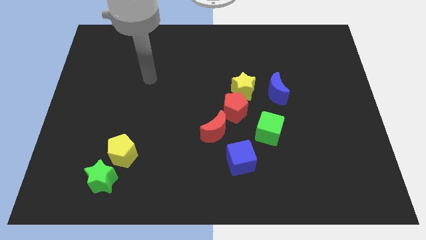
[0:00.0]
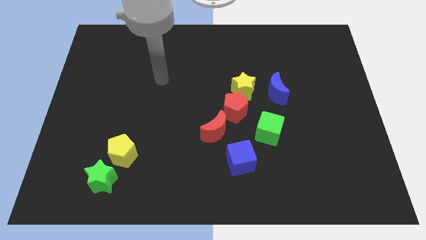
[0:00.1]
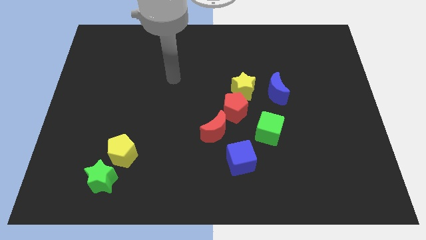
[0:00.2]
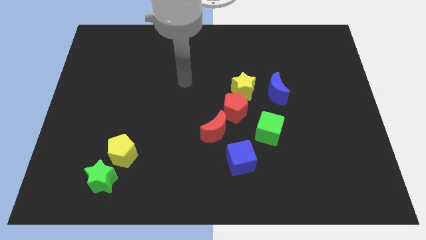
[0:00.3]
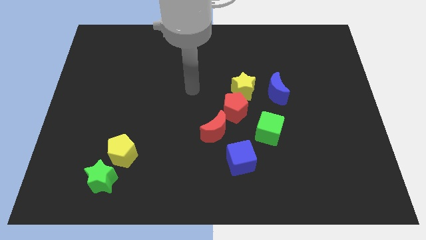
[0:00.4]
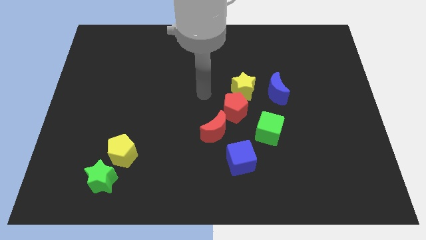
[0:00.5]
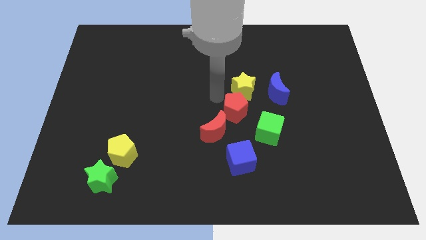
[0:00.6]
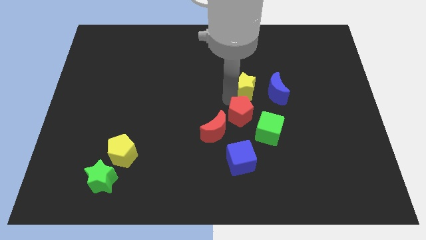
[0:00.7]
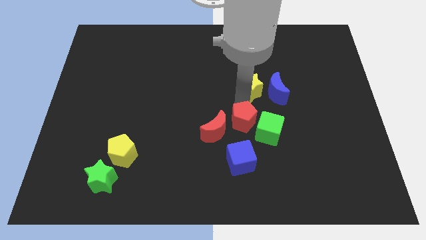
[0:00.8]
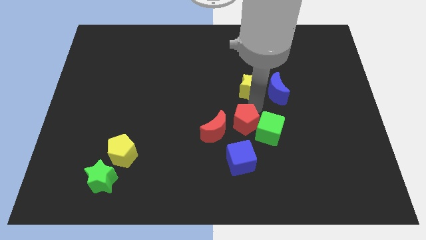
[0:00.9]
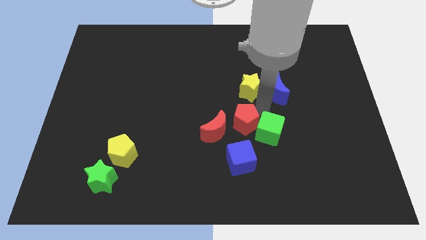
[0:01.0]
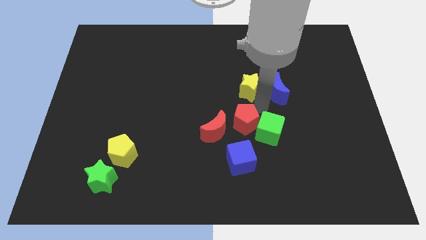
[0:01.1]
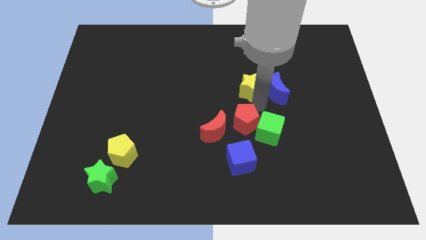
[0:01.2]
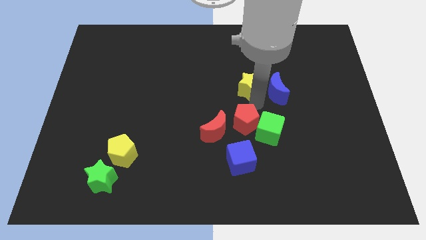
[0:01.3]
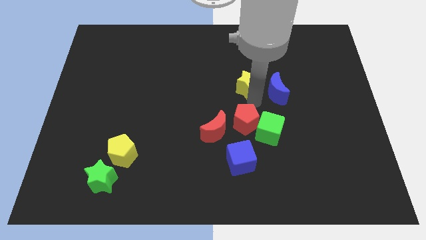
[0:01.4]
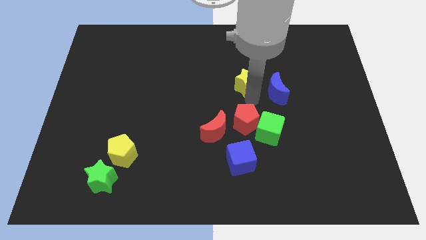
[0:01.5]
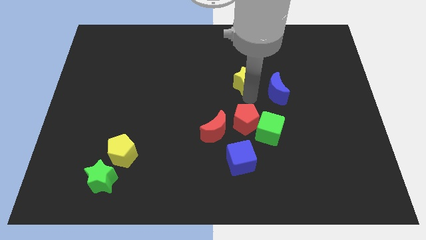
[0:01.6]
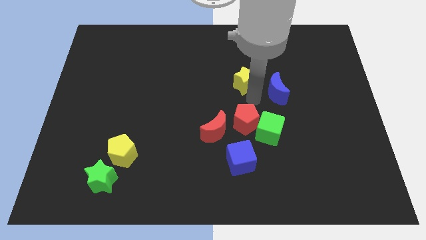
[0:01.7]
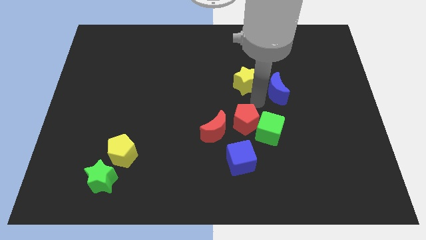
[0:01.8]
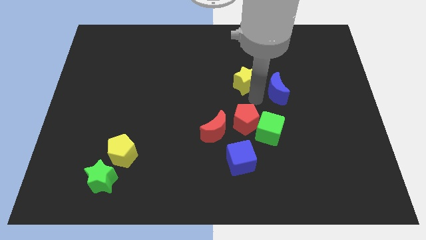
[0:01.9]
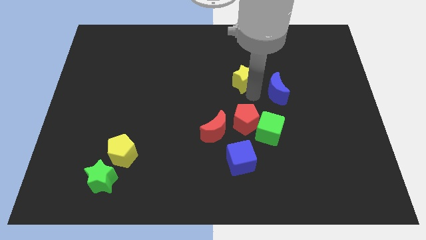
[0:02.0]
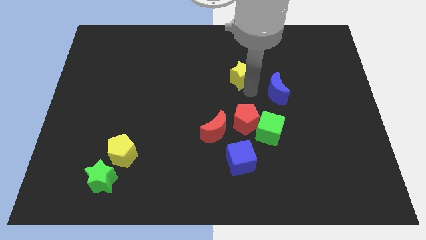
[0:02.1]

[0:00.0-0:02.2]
move the yellow star away from the red pentagon and blue moon

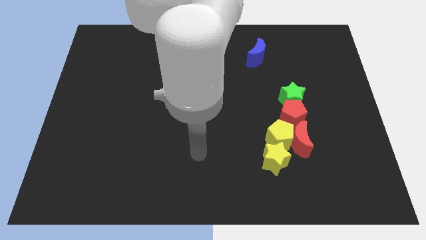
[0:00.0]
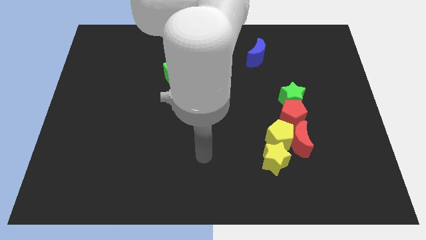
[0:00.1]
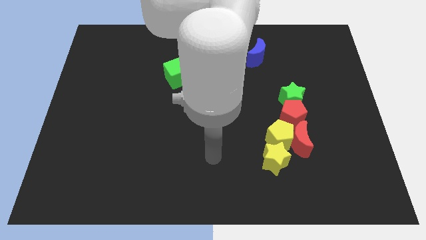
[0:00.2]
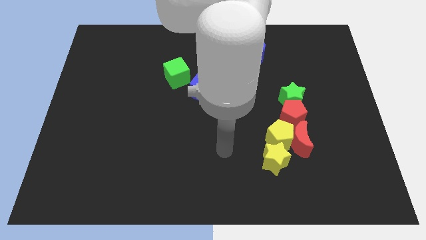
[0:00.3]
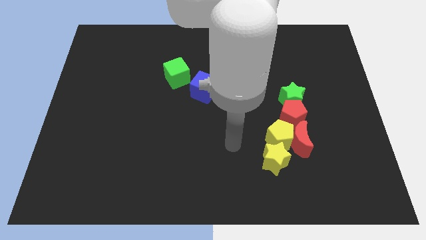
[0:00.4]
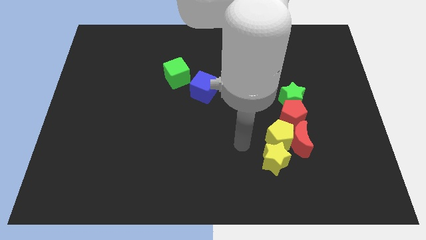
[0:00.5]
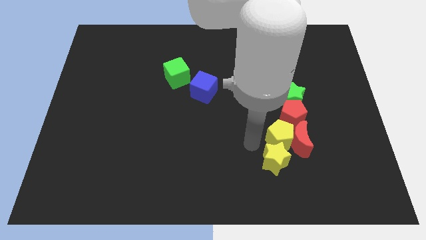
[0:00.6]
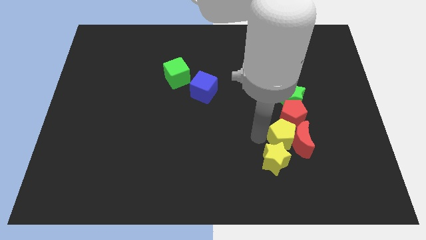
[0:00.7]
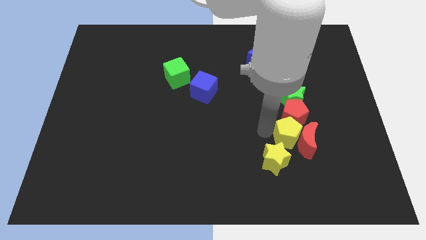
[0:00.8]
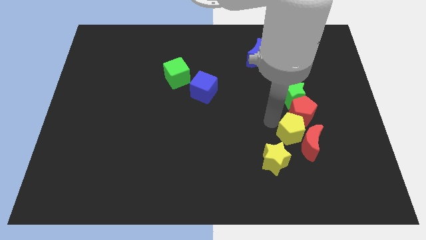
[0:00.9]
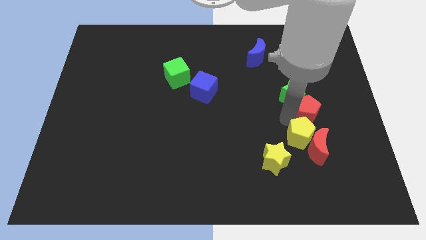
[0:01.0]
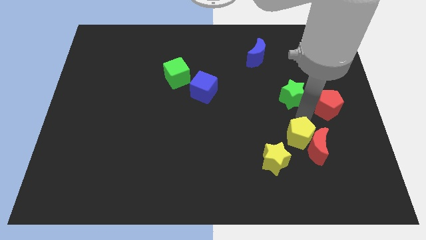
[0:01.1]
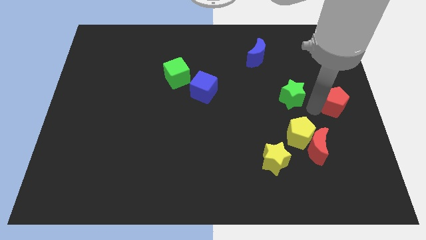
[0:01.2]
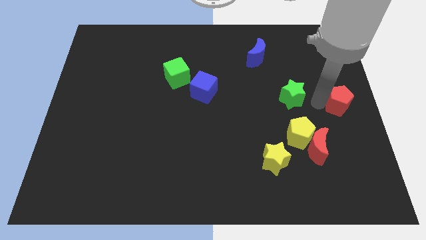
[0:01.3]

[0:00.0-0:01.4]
separate the green star from the red pentagon

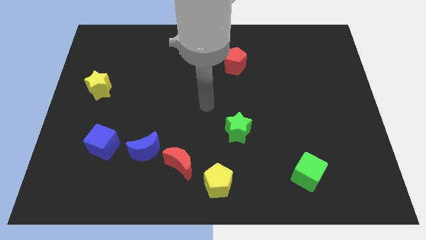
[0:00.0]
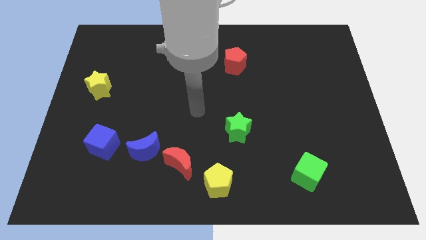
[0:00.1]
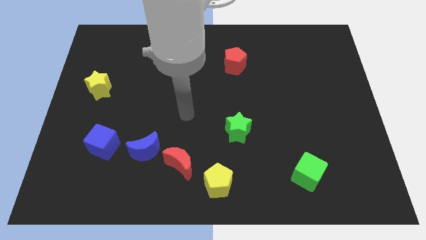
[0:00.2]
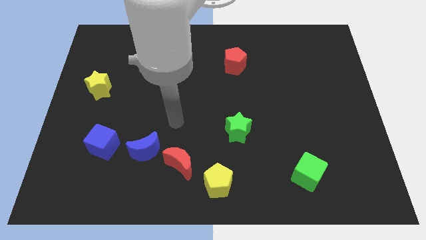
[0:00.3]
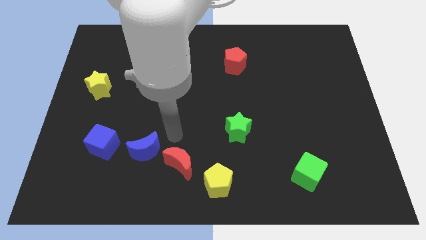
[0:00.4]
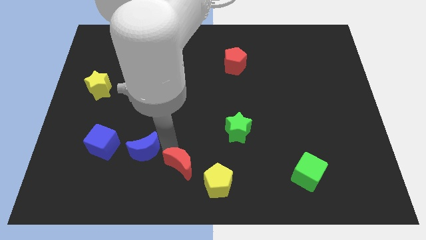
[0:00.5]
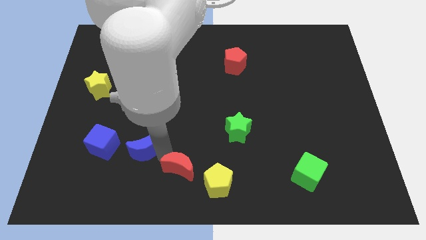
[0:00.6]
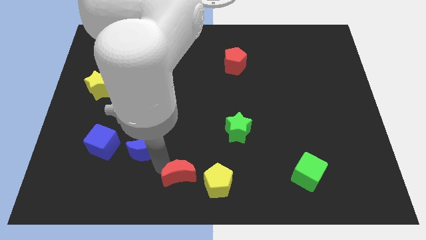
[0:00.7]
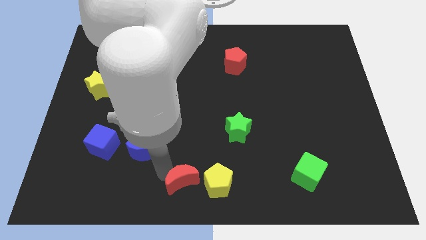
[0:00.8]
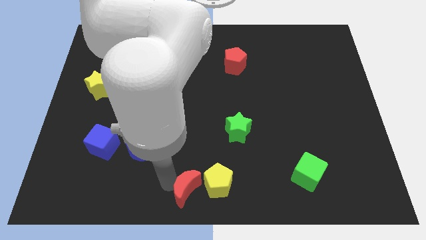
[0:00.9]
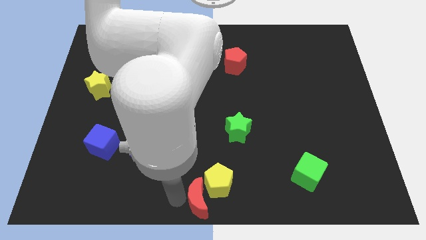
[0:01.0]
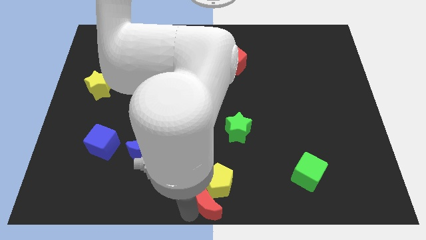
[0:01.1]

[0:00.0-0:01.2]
pull the red moon apart from the blue moon and yellow pentagon

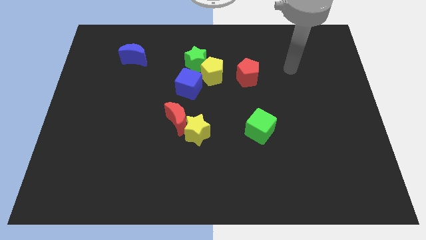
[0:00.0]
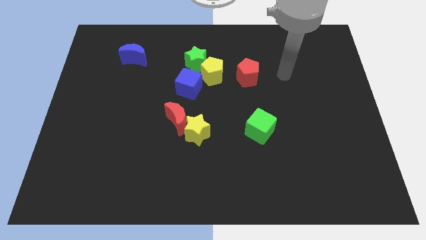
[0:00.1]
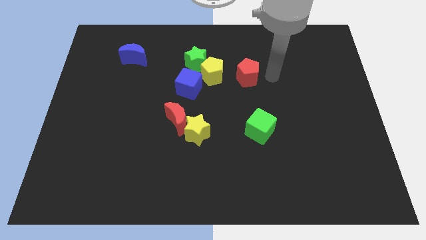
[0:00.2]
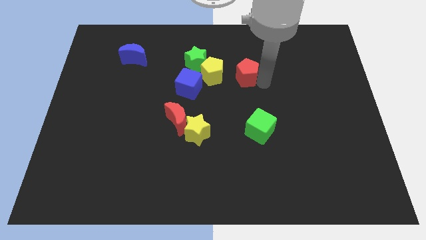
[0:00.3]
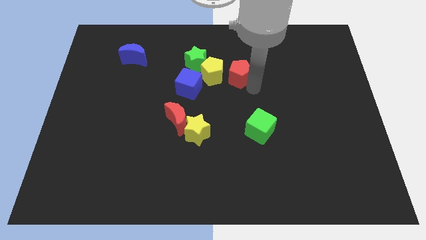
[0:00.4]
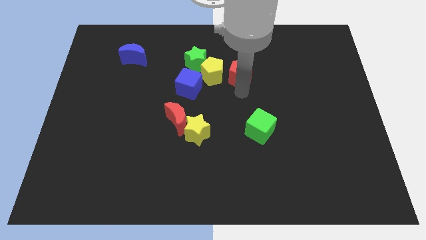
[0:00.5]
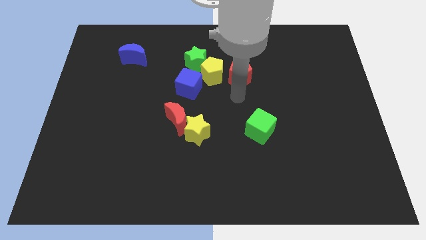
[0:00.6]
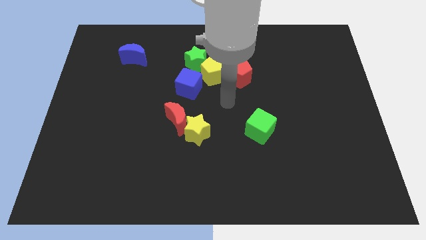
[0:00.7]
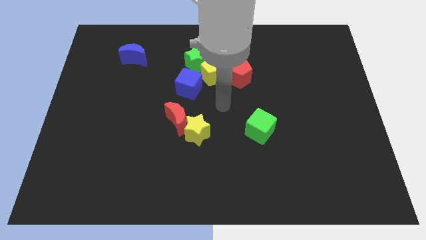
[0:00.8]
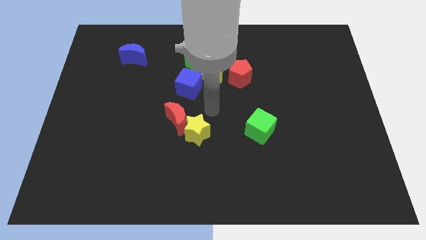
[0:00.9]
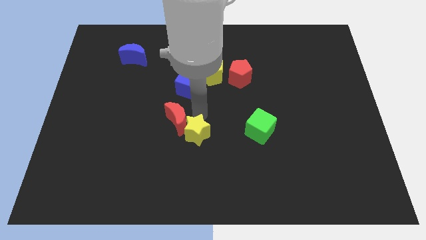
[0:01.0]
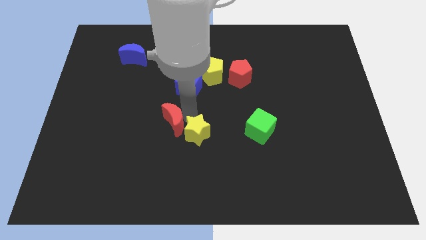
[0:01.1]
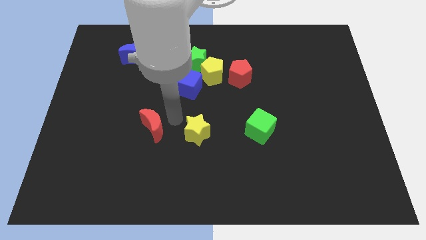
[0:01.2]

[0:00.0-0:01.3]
move the yellow star away from the red moon

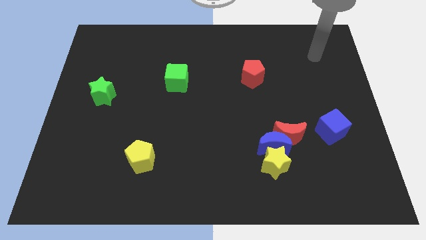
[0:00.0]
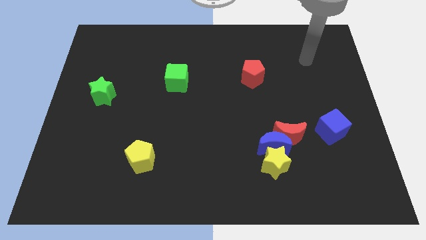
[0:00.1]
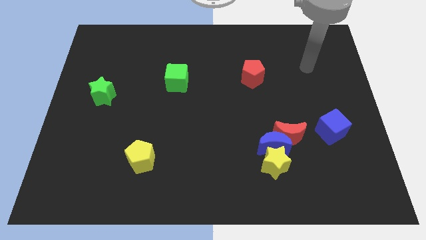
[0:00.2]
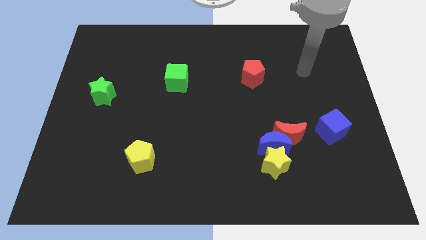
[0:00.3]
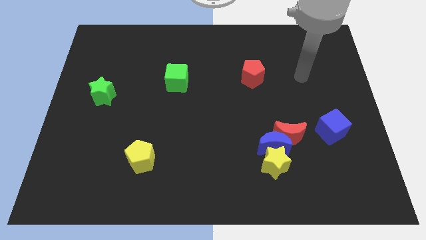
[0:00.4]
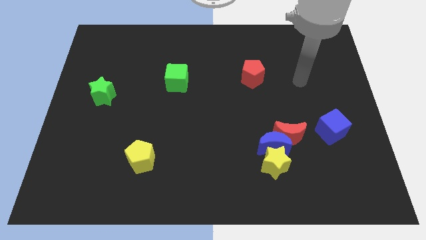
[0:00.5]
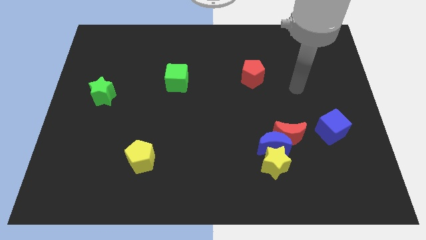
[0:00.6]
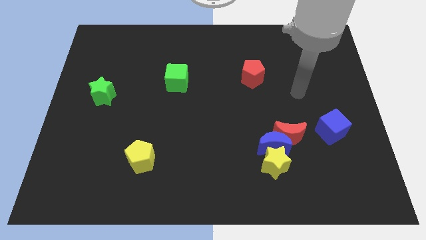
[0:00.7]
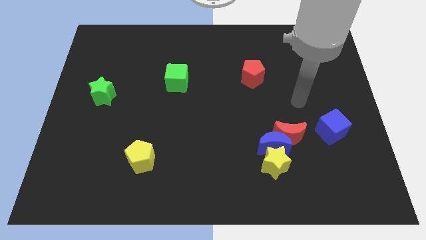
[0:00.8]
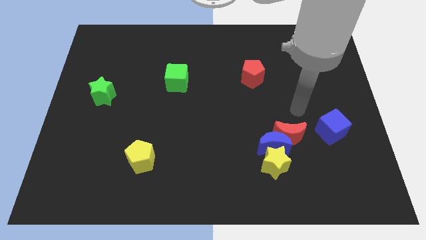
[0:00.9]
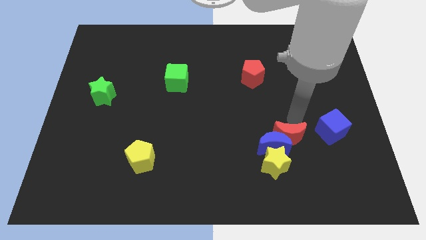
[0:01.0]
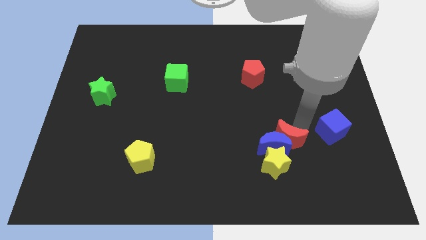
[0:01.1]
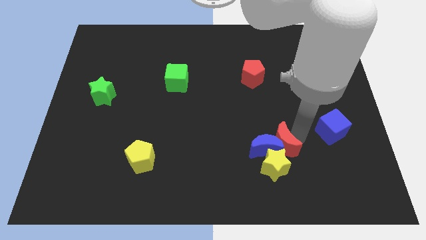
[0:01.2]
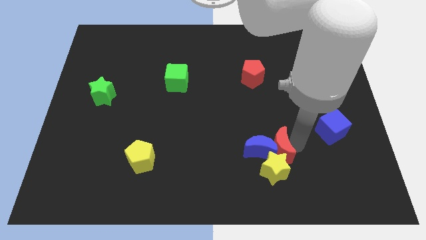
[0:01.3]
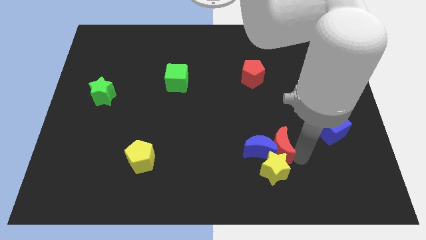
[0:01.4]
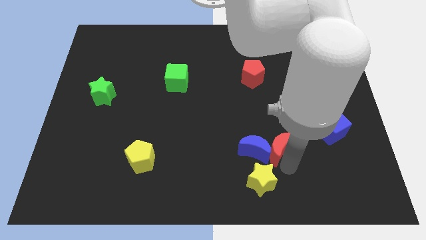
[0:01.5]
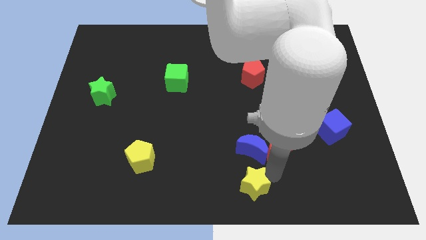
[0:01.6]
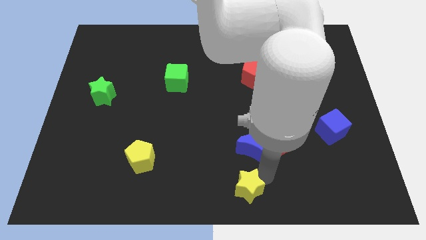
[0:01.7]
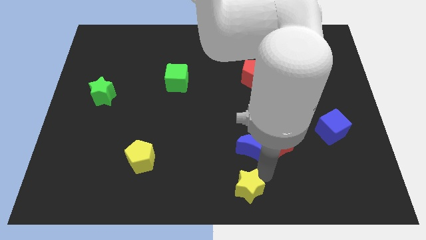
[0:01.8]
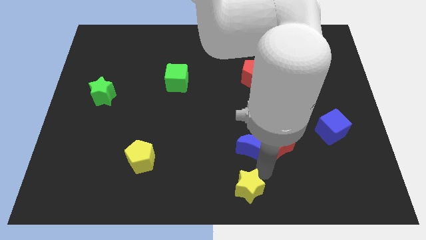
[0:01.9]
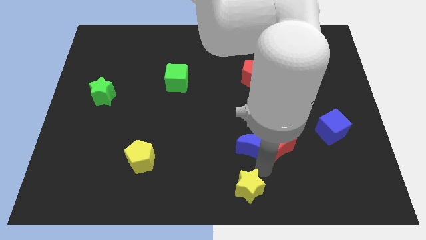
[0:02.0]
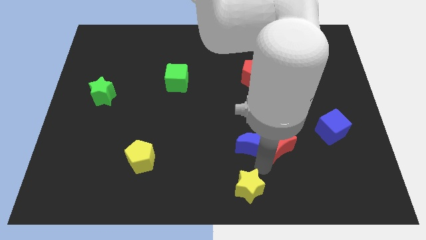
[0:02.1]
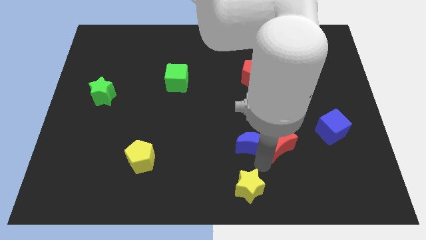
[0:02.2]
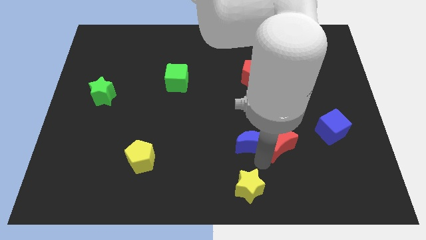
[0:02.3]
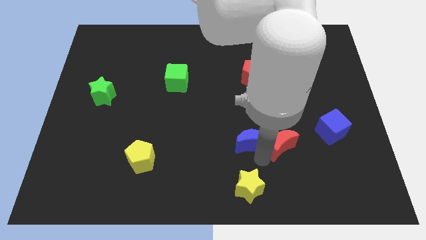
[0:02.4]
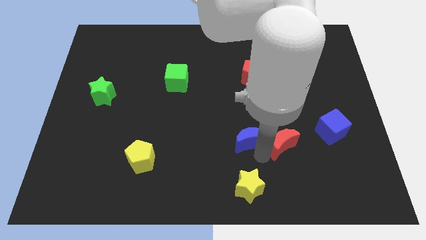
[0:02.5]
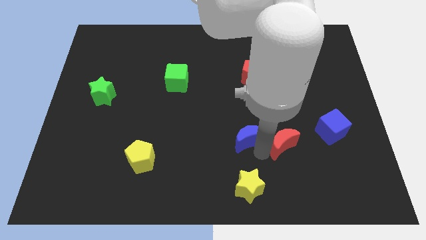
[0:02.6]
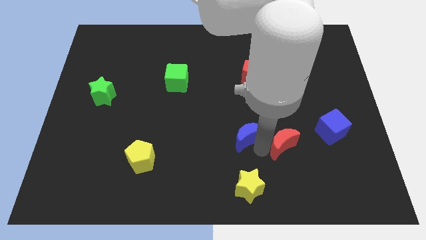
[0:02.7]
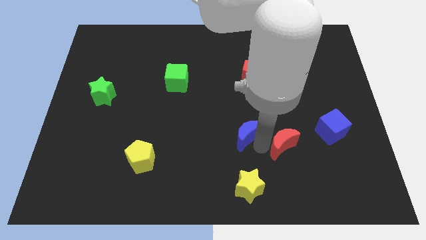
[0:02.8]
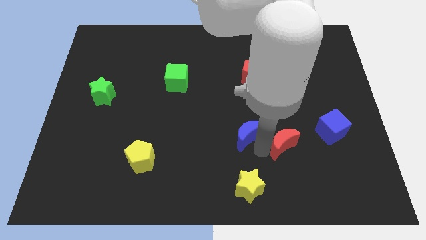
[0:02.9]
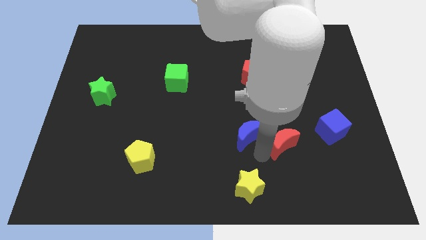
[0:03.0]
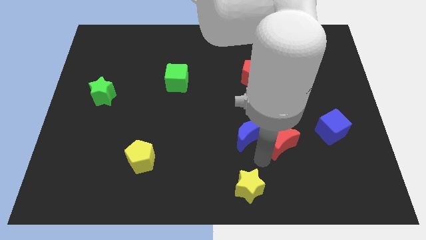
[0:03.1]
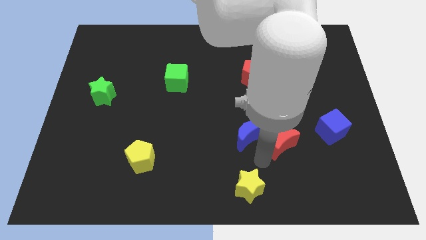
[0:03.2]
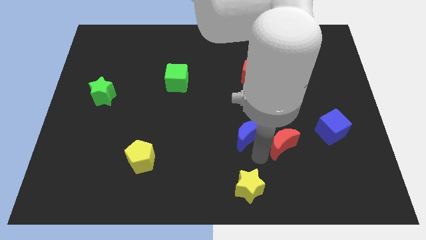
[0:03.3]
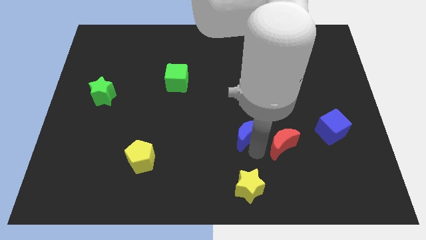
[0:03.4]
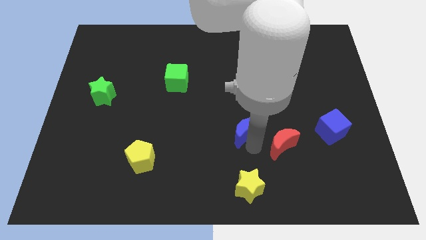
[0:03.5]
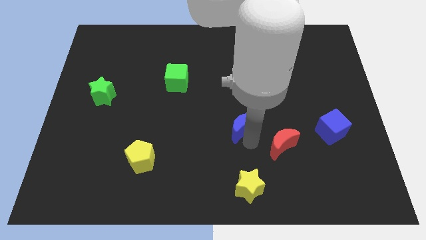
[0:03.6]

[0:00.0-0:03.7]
separate the blue moon from the yellow star and red moon
